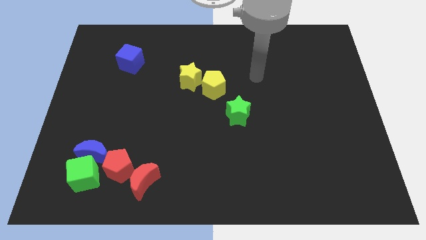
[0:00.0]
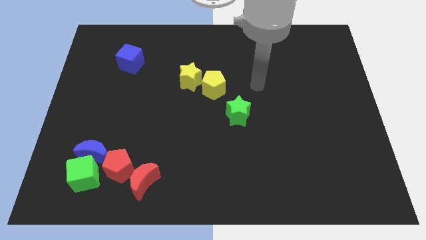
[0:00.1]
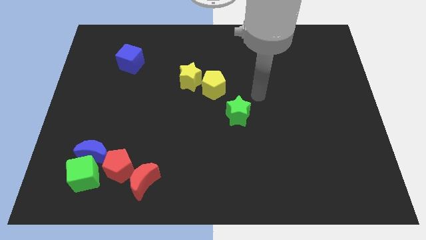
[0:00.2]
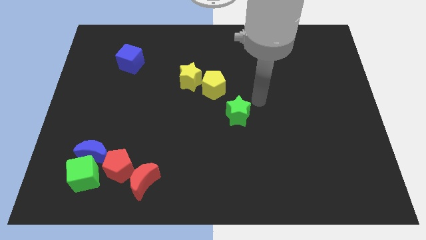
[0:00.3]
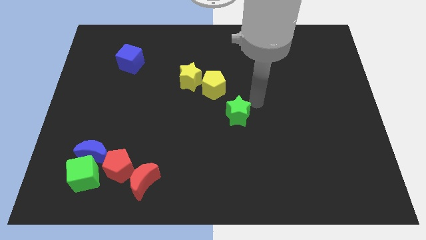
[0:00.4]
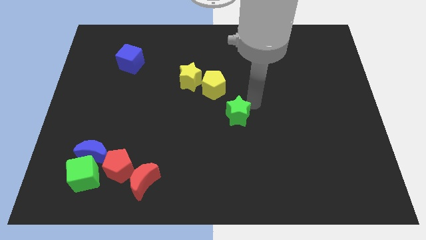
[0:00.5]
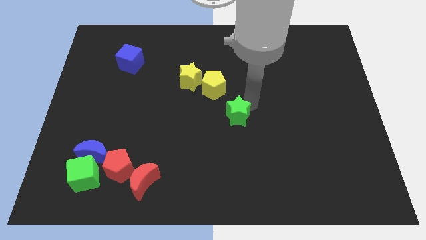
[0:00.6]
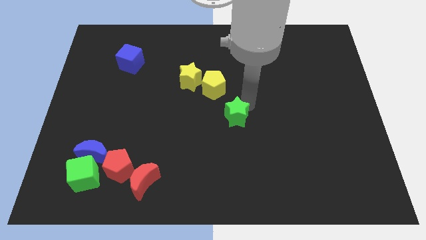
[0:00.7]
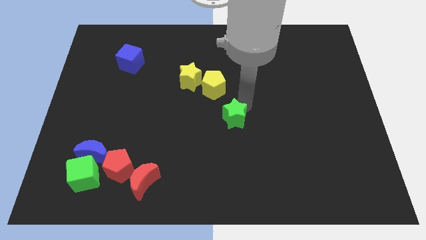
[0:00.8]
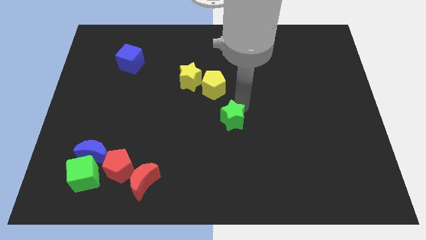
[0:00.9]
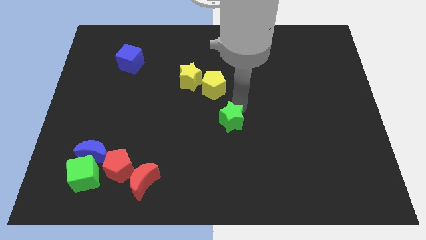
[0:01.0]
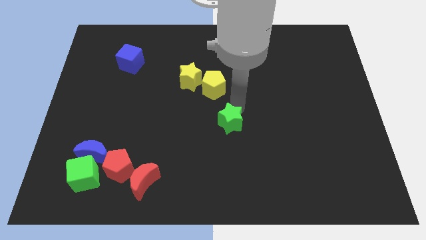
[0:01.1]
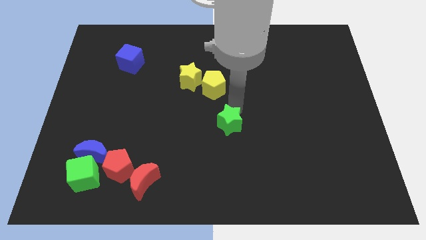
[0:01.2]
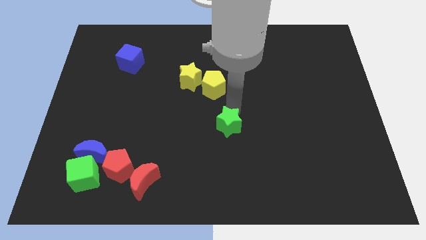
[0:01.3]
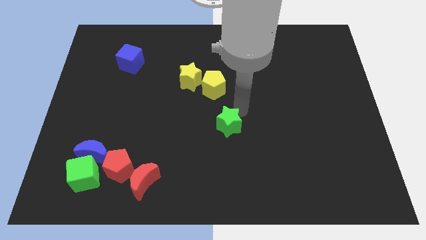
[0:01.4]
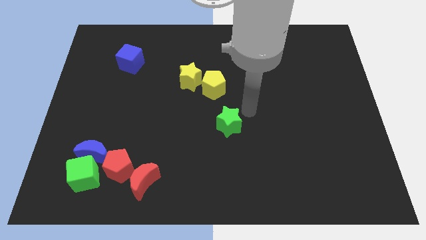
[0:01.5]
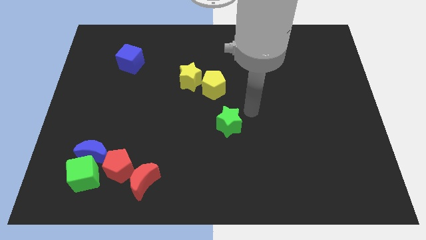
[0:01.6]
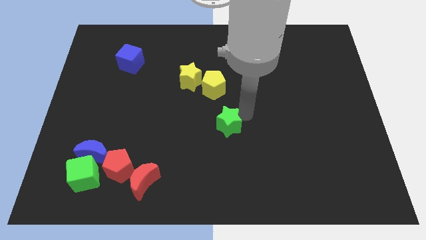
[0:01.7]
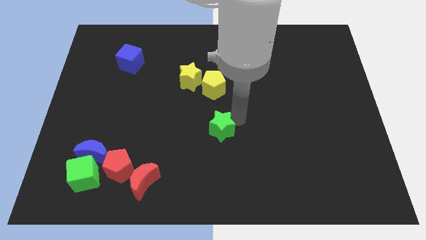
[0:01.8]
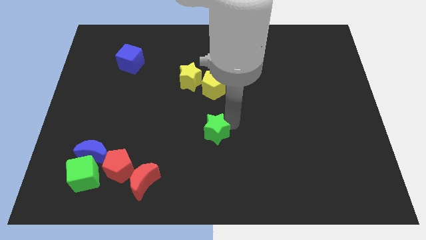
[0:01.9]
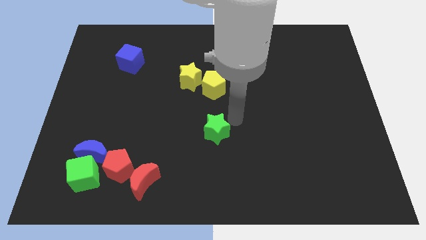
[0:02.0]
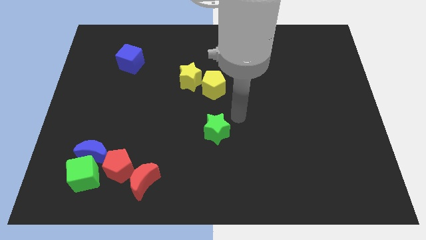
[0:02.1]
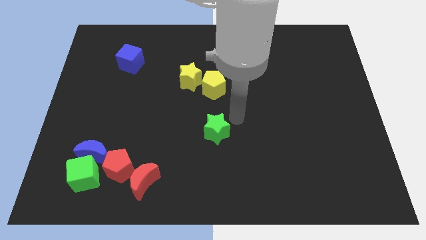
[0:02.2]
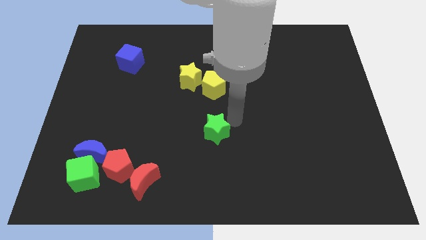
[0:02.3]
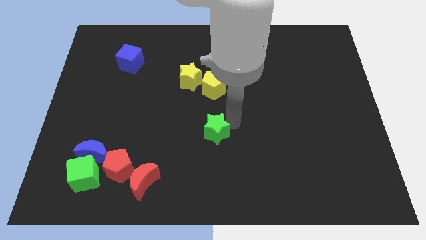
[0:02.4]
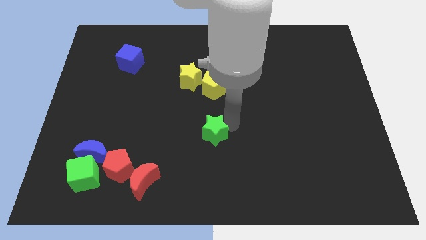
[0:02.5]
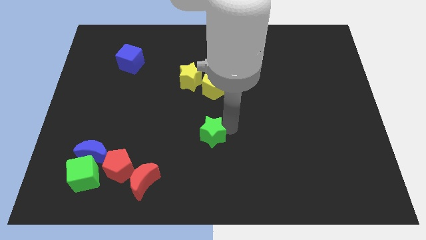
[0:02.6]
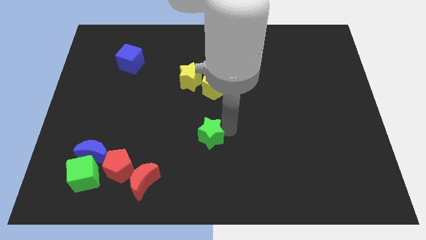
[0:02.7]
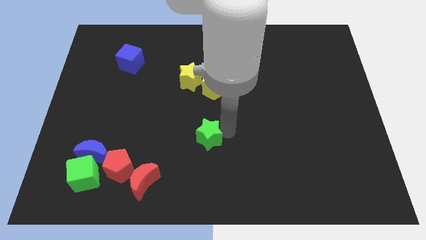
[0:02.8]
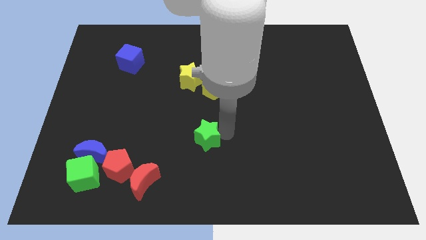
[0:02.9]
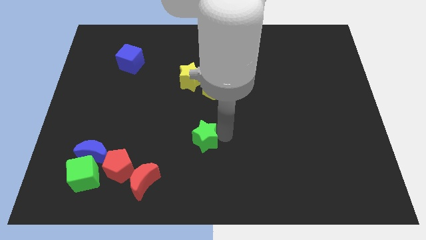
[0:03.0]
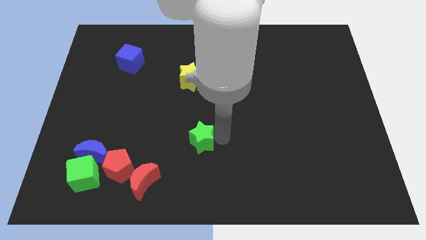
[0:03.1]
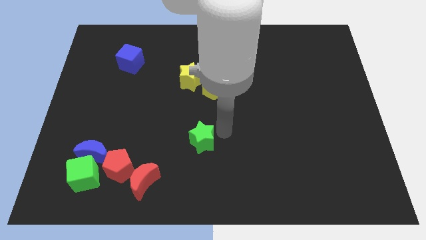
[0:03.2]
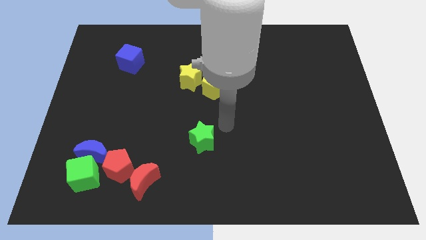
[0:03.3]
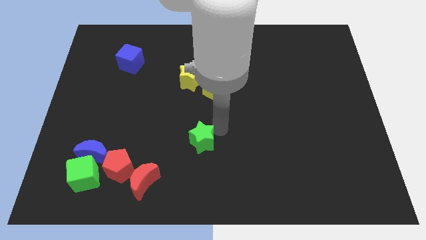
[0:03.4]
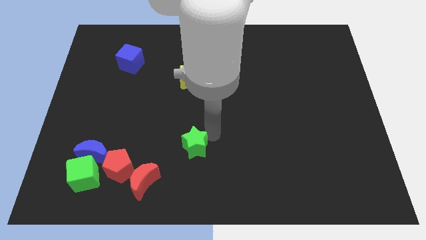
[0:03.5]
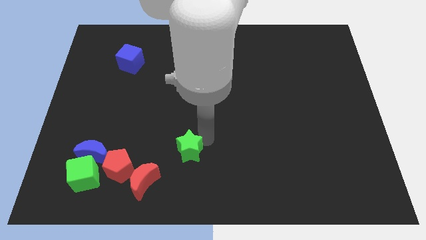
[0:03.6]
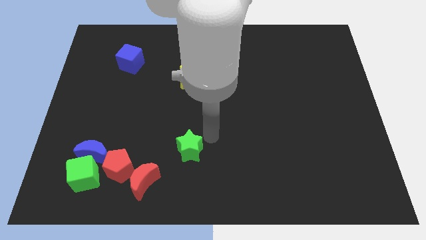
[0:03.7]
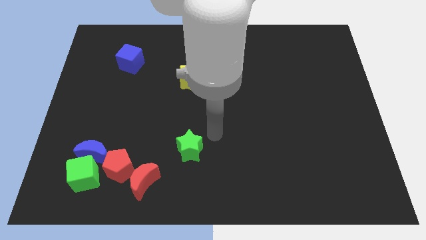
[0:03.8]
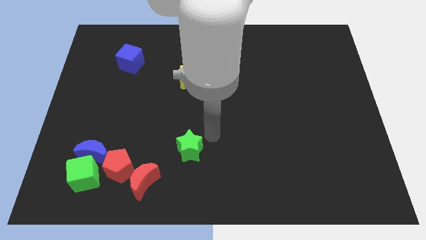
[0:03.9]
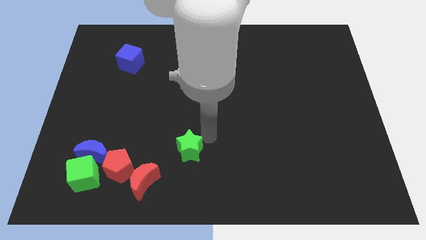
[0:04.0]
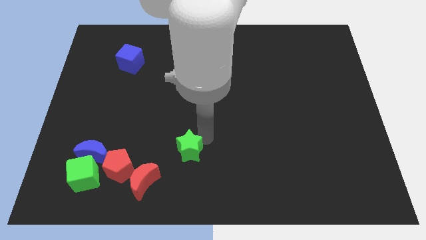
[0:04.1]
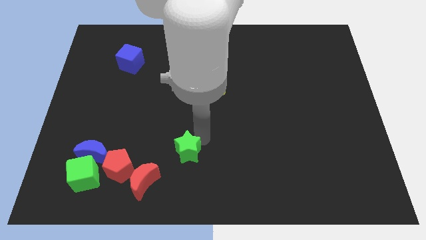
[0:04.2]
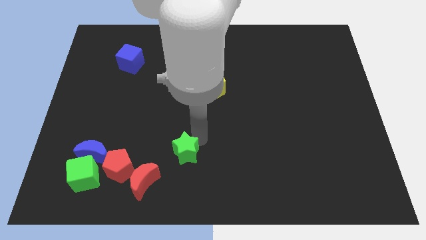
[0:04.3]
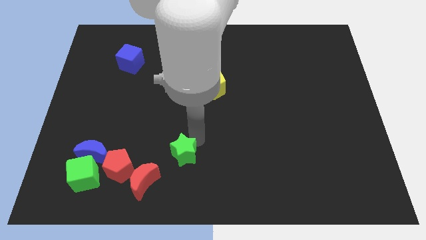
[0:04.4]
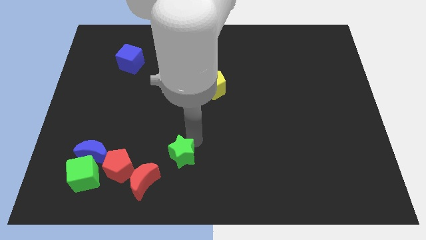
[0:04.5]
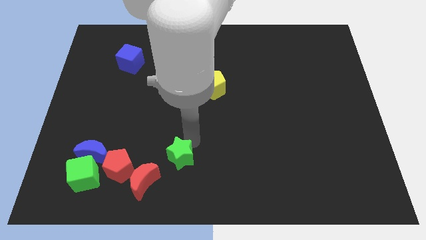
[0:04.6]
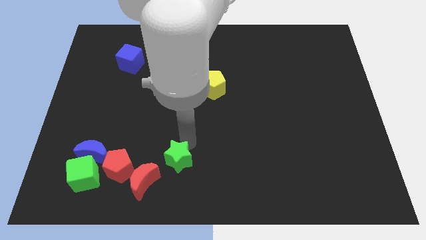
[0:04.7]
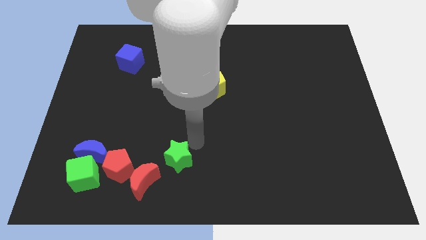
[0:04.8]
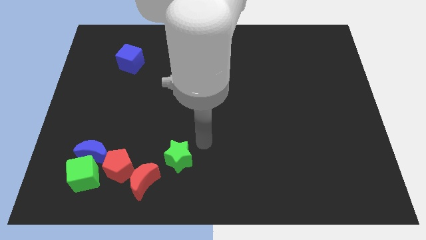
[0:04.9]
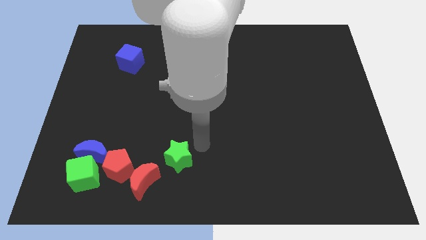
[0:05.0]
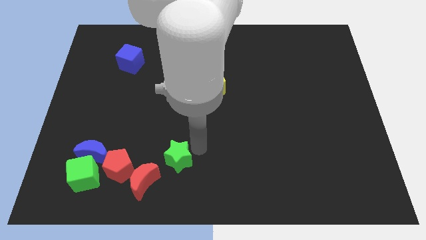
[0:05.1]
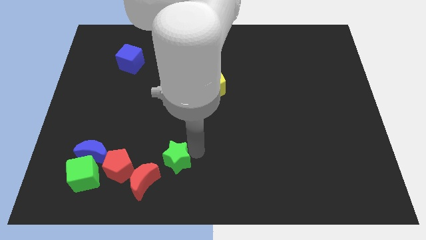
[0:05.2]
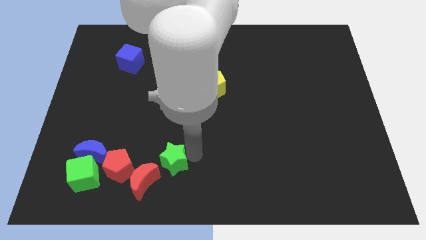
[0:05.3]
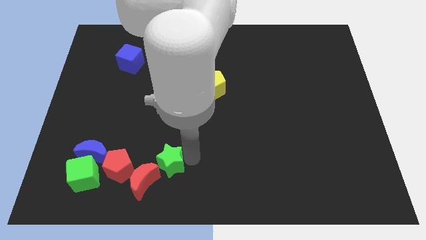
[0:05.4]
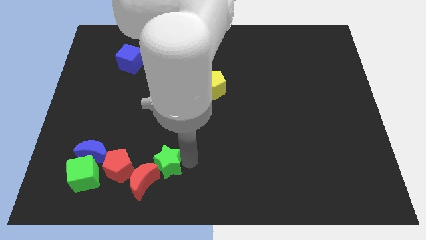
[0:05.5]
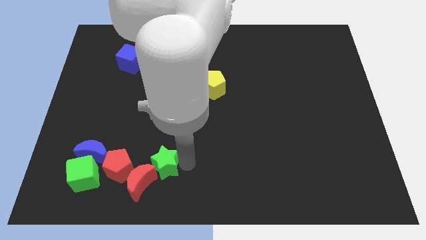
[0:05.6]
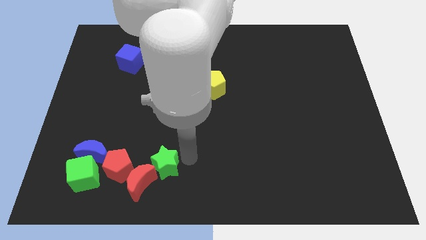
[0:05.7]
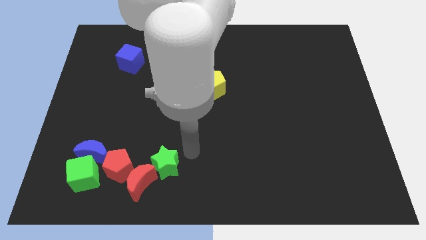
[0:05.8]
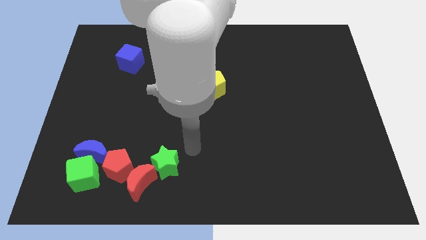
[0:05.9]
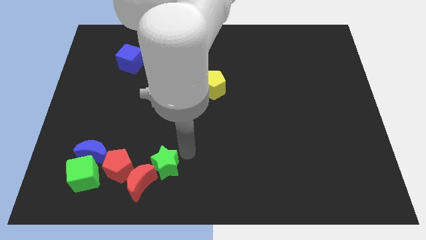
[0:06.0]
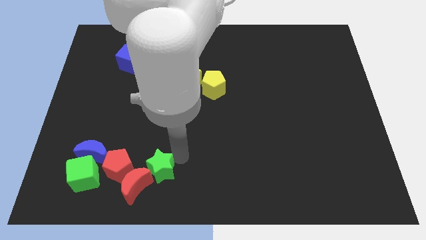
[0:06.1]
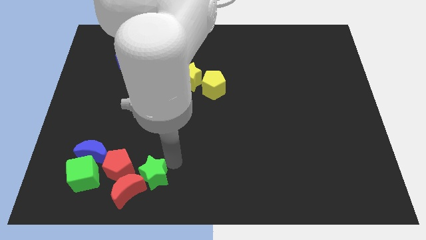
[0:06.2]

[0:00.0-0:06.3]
move the green star to the red moon

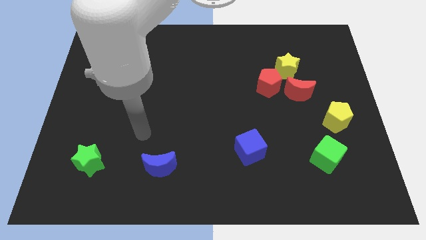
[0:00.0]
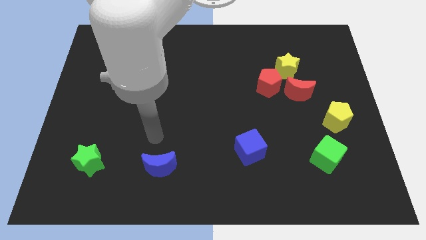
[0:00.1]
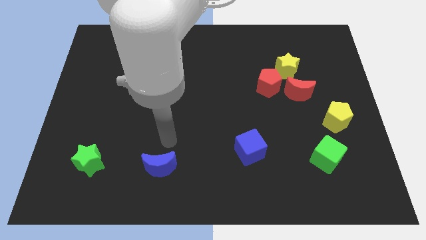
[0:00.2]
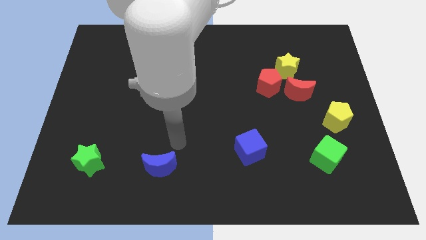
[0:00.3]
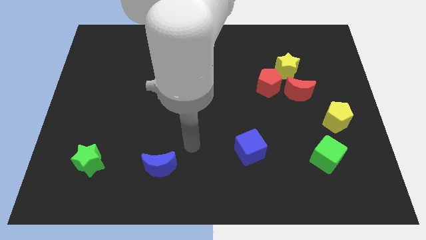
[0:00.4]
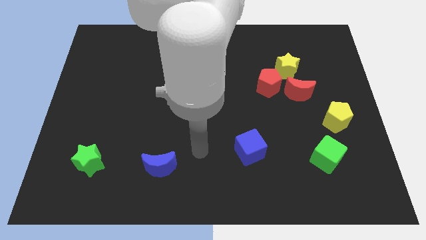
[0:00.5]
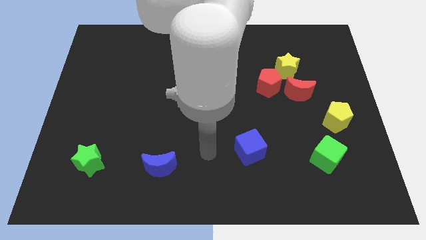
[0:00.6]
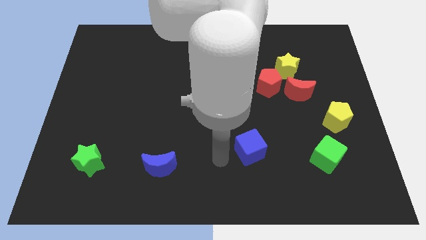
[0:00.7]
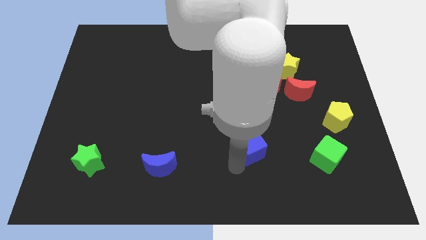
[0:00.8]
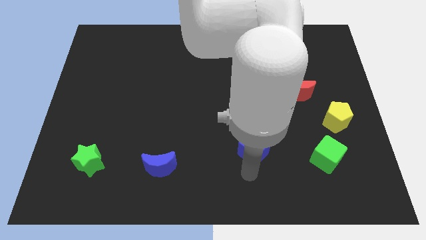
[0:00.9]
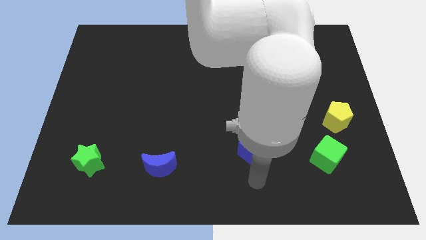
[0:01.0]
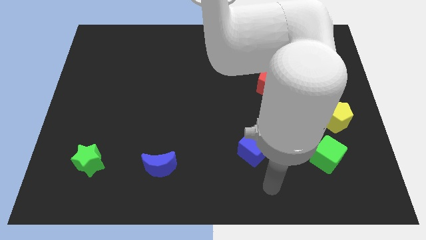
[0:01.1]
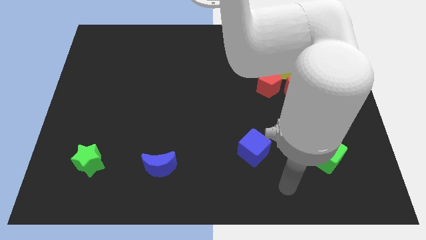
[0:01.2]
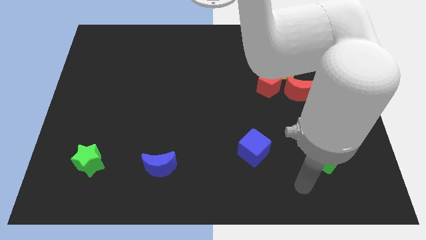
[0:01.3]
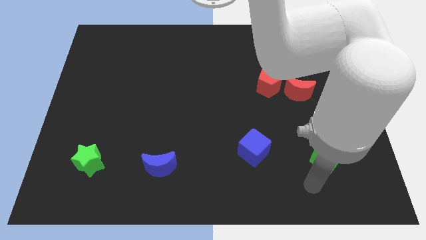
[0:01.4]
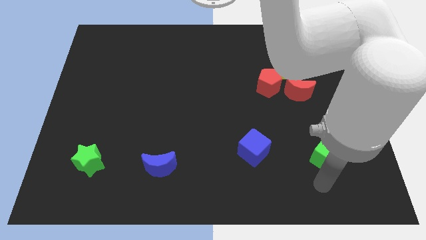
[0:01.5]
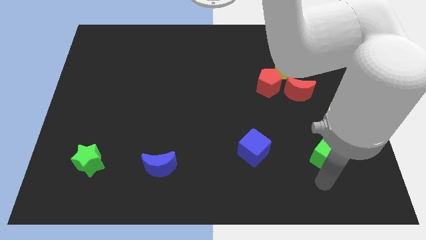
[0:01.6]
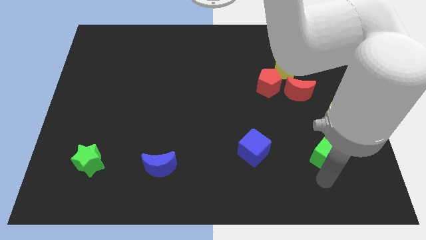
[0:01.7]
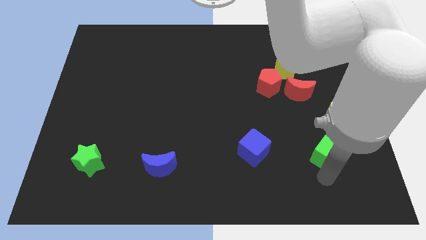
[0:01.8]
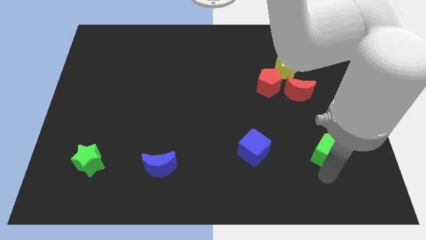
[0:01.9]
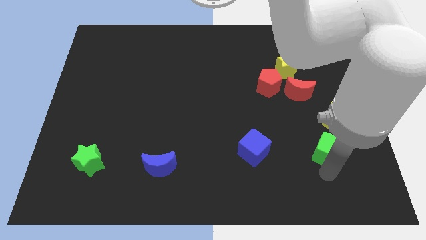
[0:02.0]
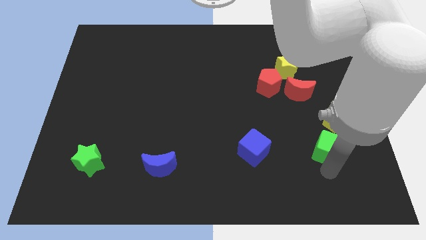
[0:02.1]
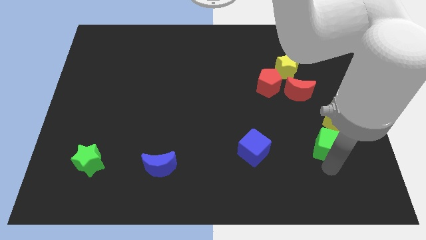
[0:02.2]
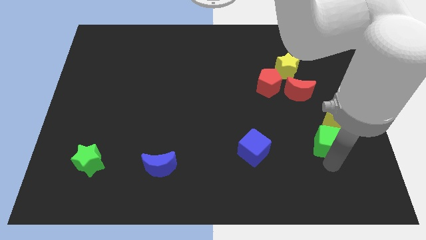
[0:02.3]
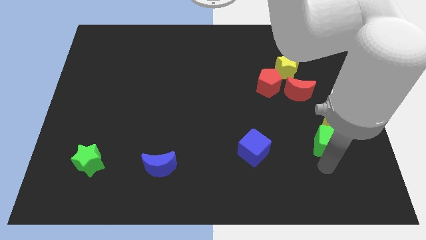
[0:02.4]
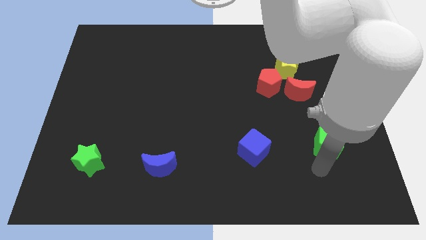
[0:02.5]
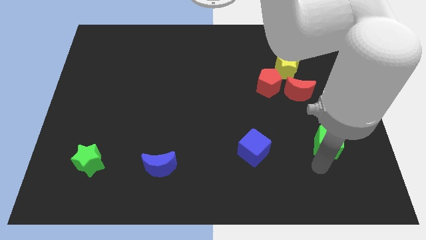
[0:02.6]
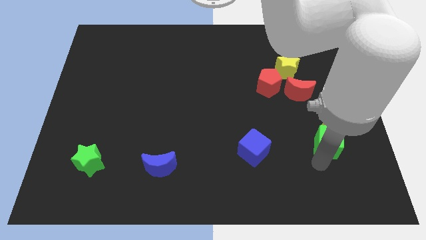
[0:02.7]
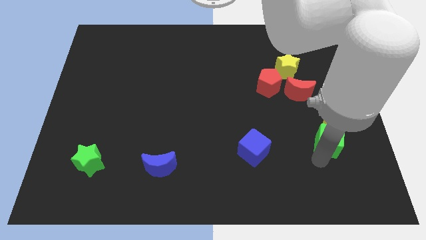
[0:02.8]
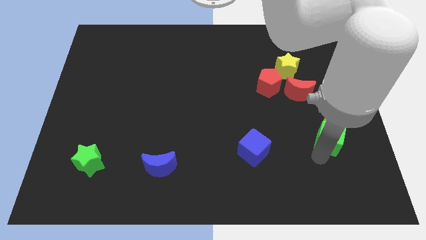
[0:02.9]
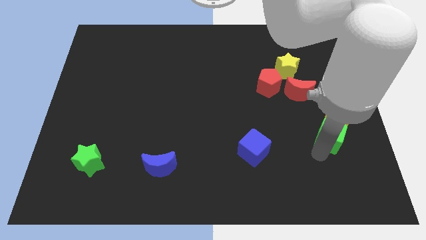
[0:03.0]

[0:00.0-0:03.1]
put the green cube towards the yellow pentagon
